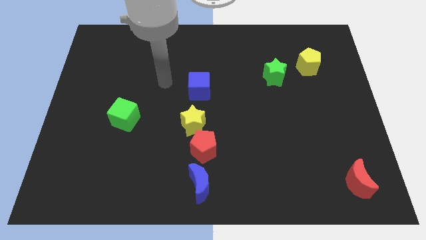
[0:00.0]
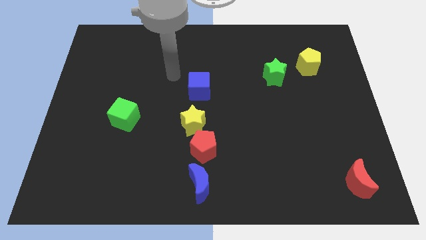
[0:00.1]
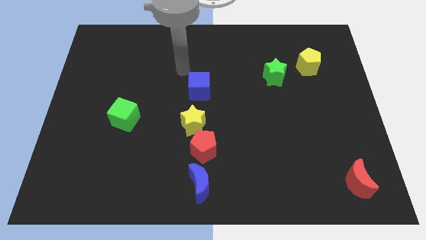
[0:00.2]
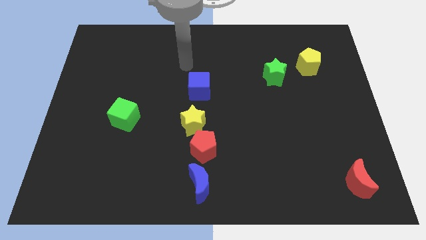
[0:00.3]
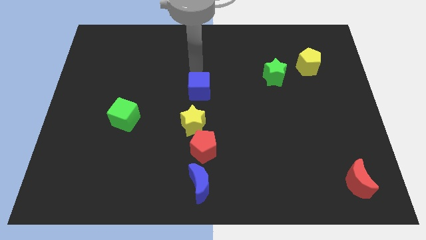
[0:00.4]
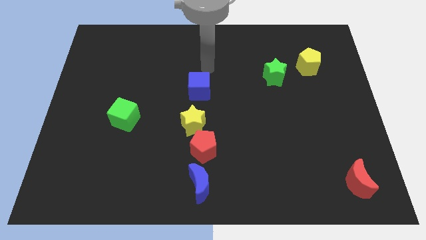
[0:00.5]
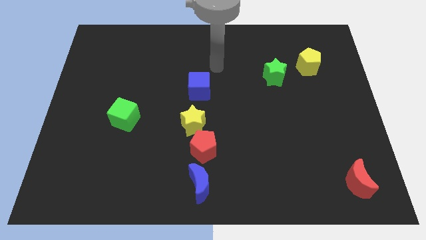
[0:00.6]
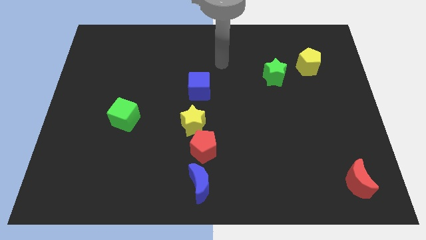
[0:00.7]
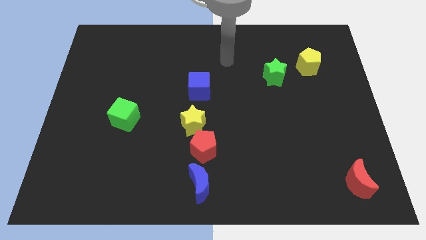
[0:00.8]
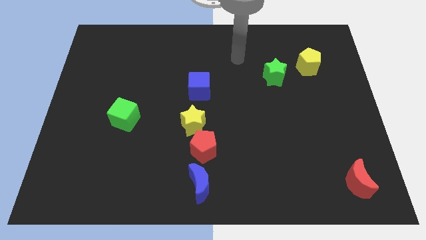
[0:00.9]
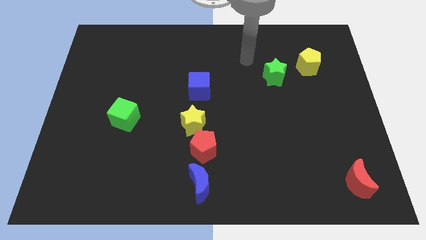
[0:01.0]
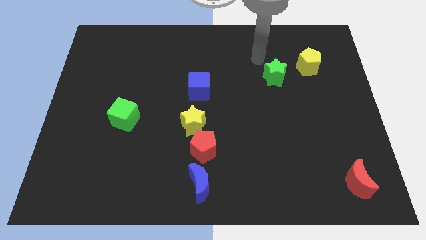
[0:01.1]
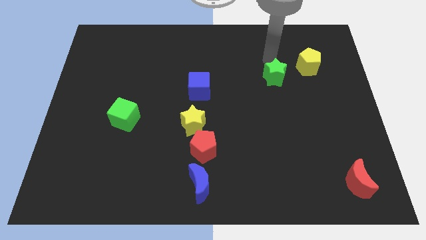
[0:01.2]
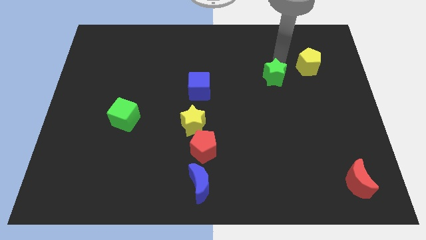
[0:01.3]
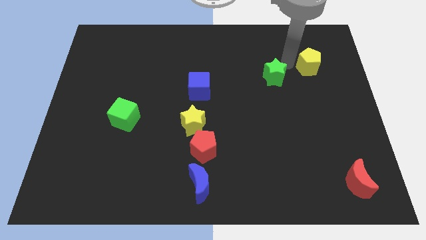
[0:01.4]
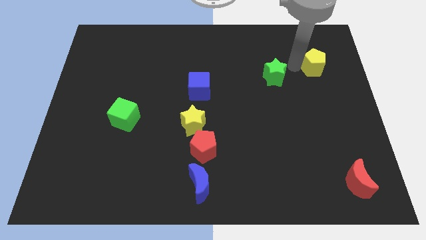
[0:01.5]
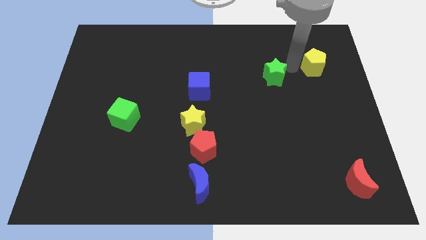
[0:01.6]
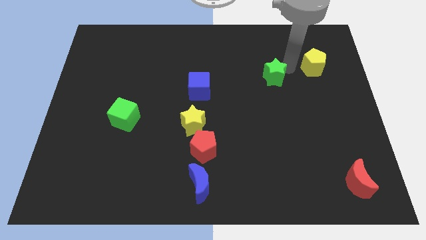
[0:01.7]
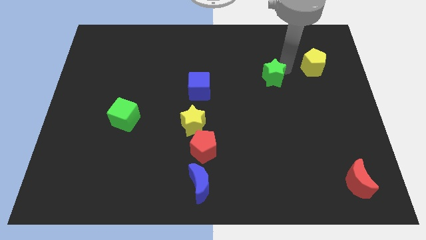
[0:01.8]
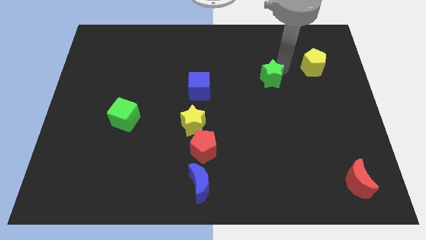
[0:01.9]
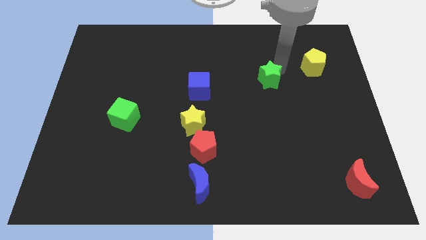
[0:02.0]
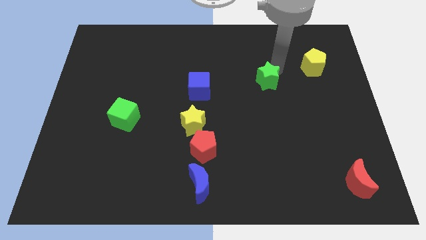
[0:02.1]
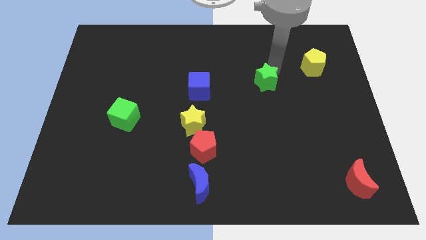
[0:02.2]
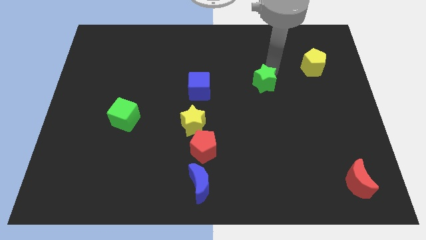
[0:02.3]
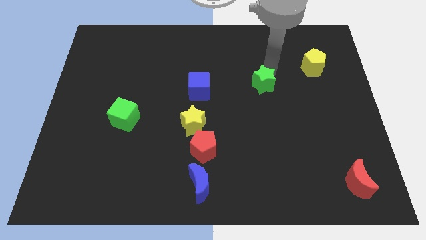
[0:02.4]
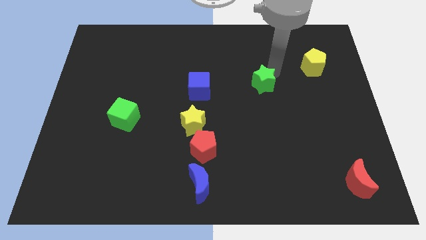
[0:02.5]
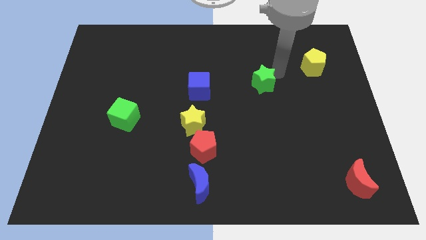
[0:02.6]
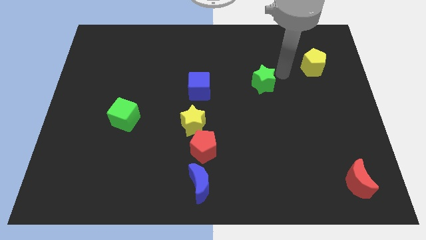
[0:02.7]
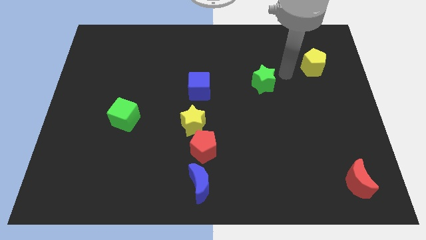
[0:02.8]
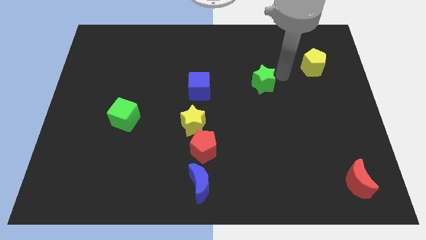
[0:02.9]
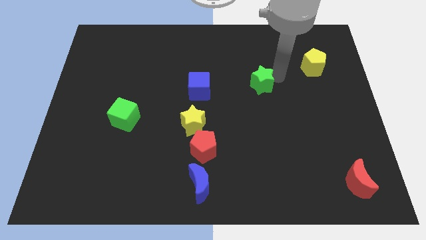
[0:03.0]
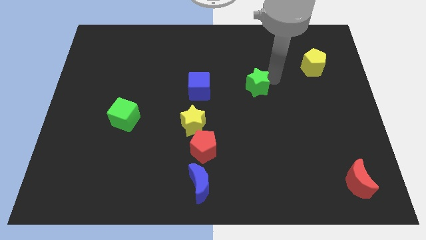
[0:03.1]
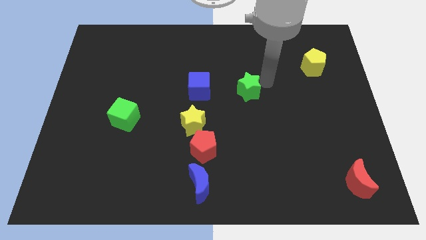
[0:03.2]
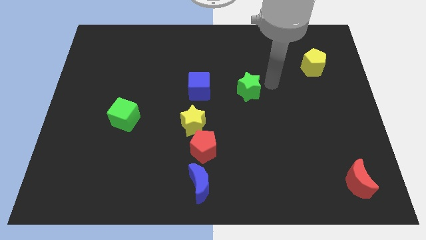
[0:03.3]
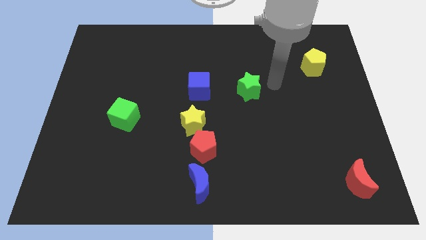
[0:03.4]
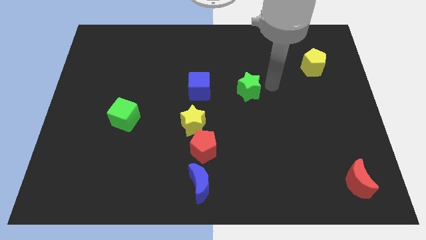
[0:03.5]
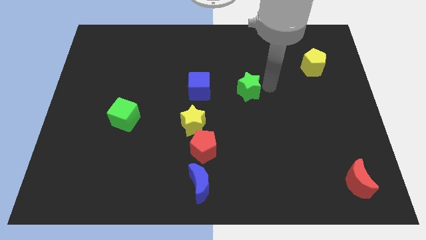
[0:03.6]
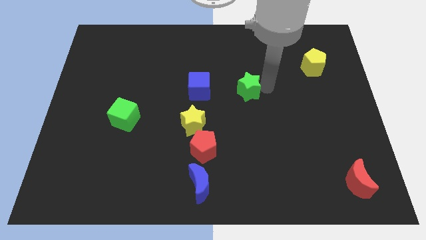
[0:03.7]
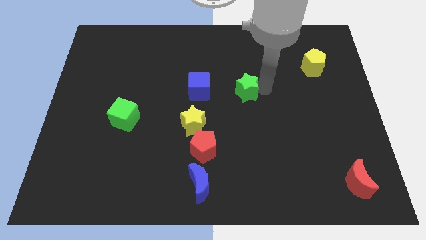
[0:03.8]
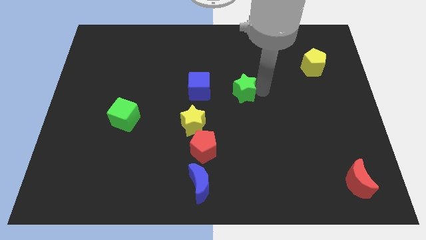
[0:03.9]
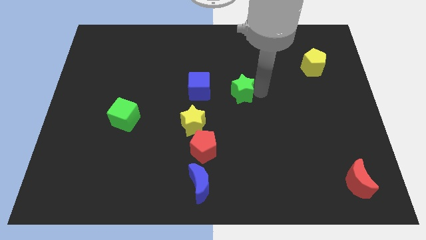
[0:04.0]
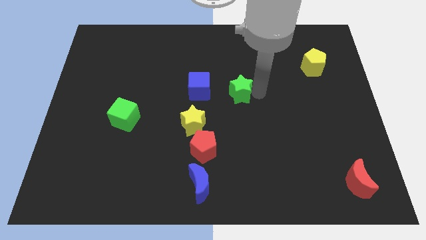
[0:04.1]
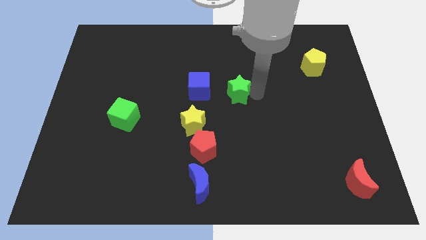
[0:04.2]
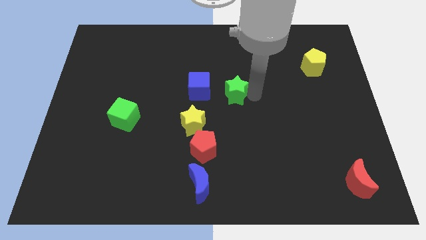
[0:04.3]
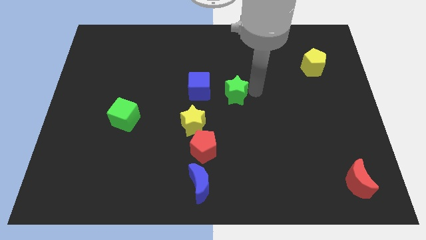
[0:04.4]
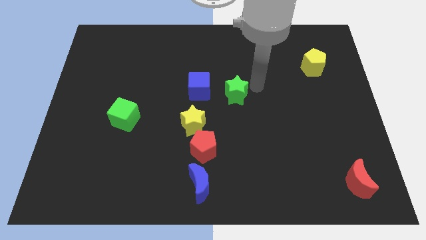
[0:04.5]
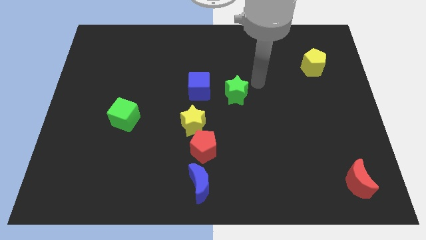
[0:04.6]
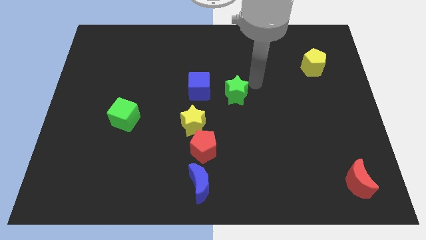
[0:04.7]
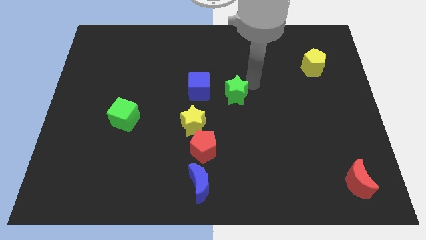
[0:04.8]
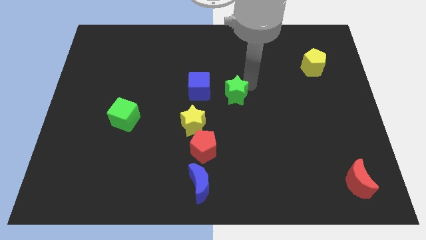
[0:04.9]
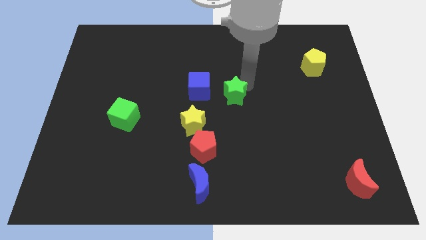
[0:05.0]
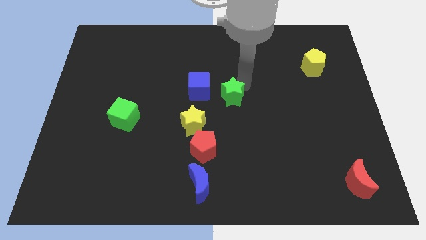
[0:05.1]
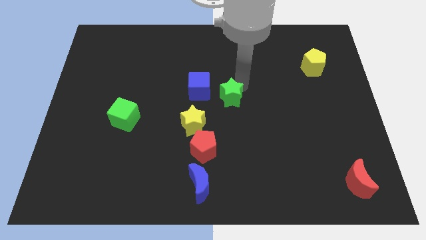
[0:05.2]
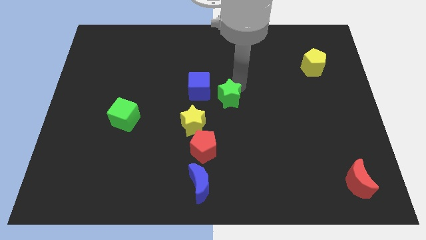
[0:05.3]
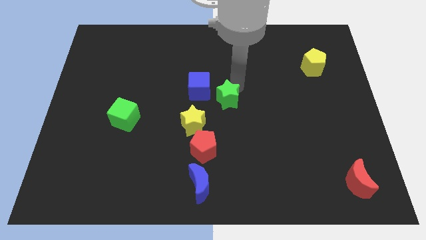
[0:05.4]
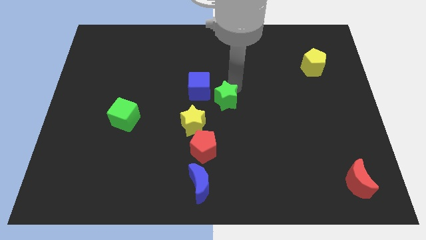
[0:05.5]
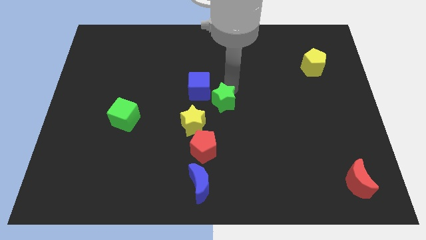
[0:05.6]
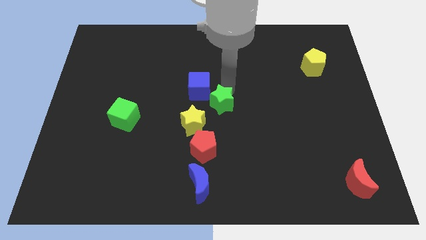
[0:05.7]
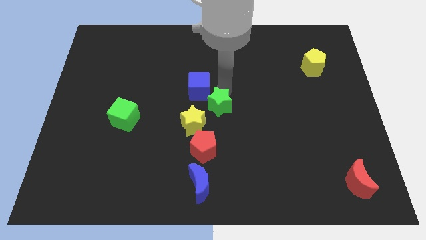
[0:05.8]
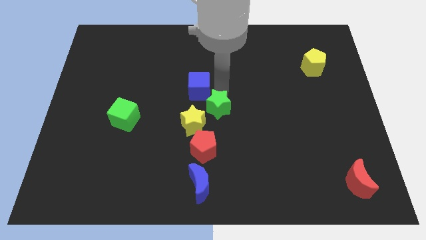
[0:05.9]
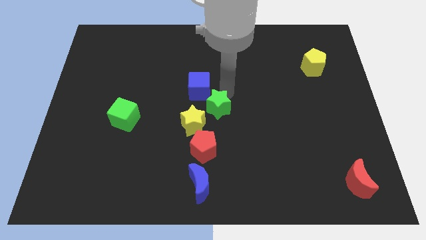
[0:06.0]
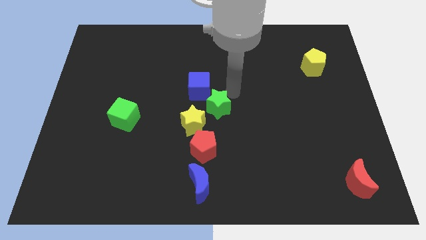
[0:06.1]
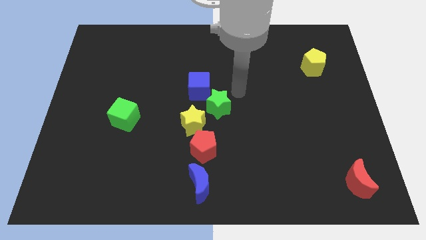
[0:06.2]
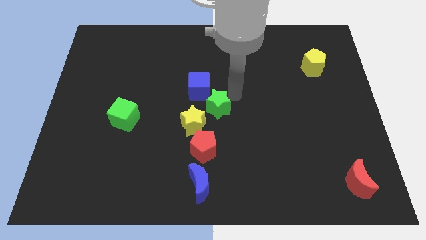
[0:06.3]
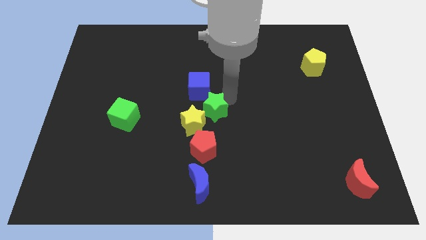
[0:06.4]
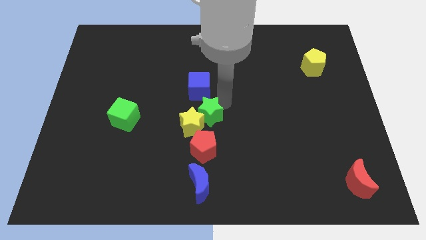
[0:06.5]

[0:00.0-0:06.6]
move the green star towards the yellow star

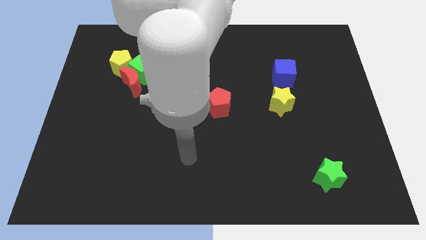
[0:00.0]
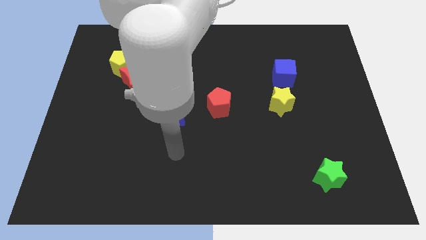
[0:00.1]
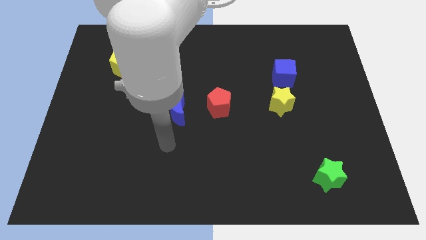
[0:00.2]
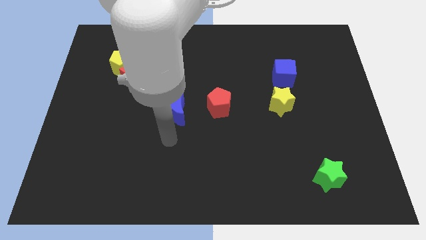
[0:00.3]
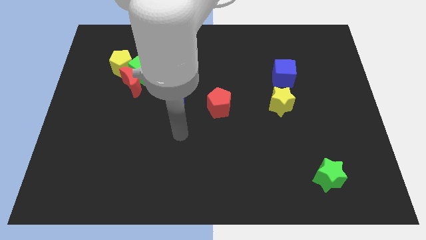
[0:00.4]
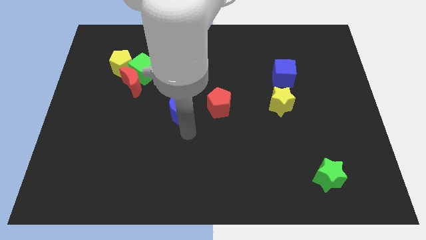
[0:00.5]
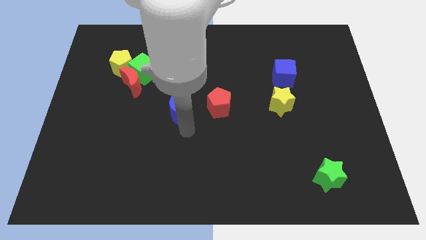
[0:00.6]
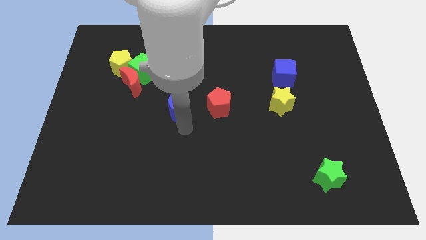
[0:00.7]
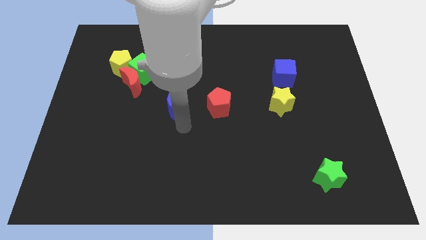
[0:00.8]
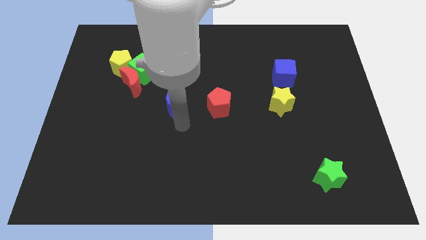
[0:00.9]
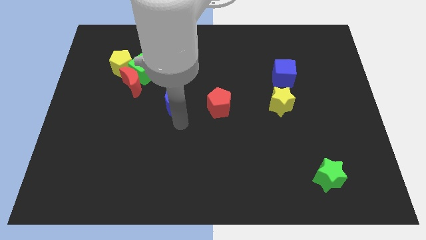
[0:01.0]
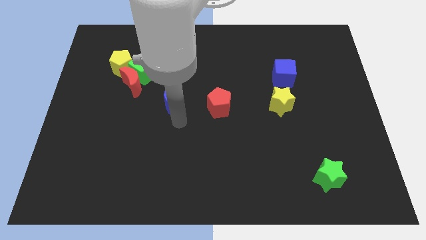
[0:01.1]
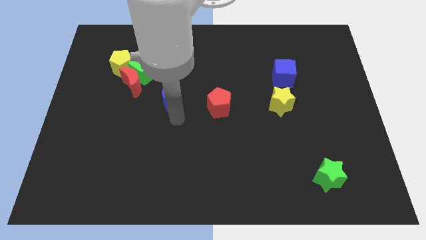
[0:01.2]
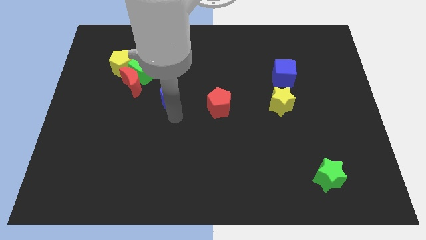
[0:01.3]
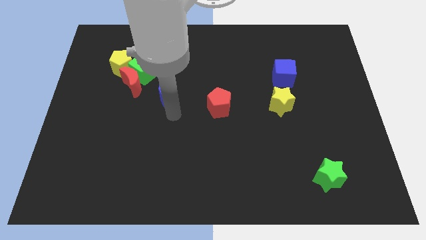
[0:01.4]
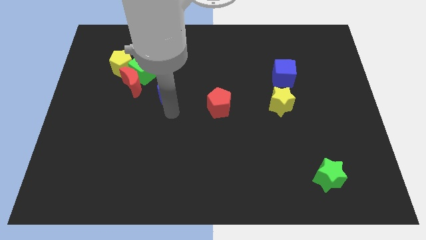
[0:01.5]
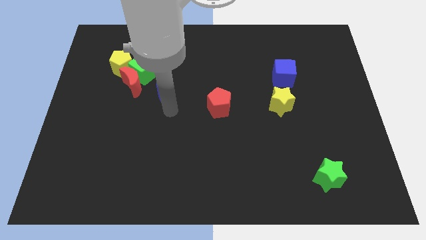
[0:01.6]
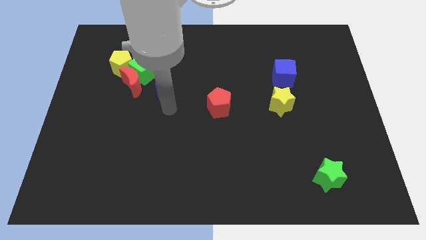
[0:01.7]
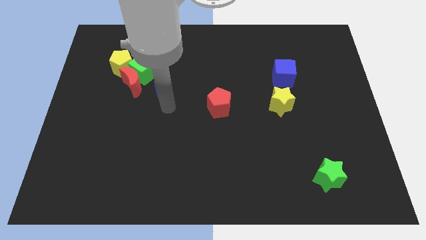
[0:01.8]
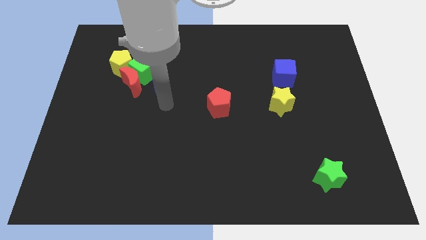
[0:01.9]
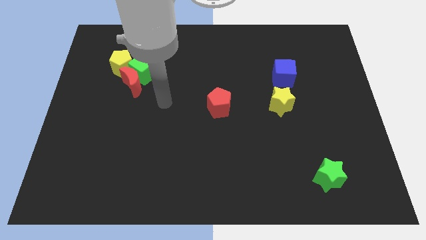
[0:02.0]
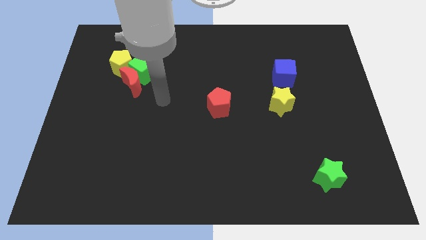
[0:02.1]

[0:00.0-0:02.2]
put the blue moon towards the green cube
